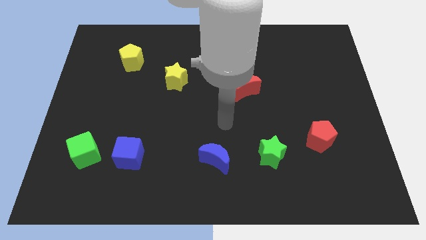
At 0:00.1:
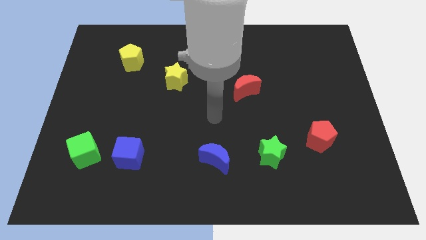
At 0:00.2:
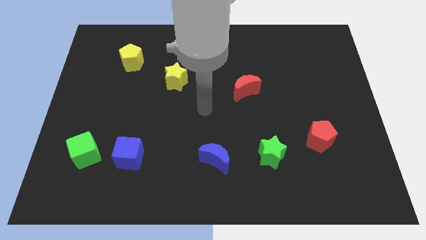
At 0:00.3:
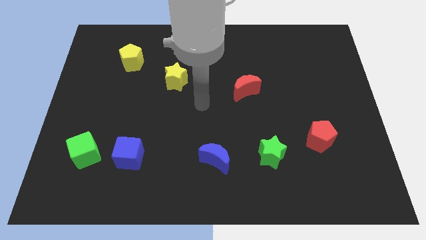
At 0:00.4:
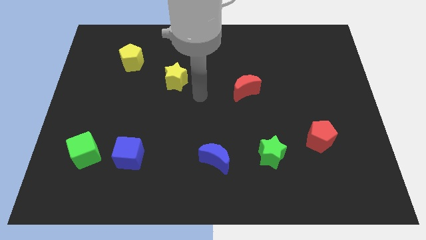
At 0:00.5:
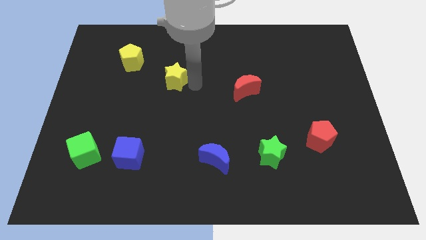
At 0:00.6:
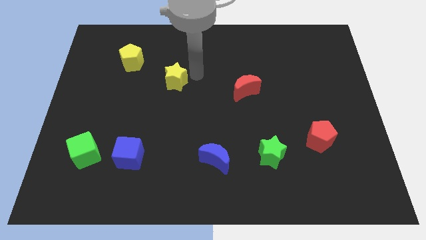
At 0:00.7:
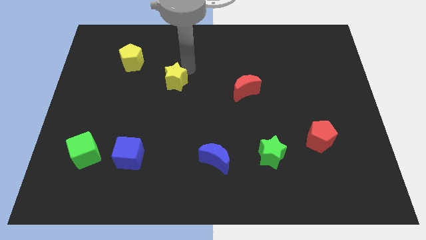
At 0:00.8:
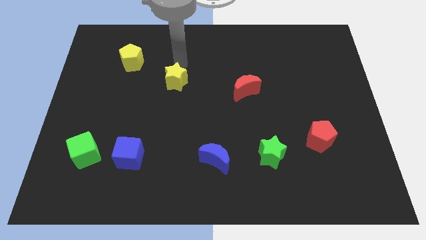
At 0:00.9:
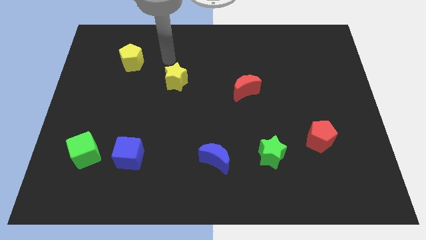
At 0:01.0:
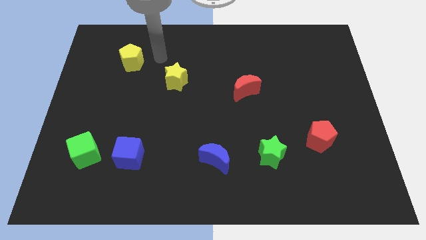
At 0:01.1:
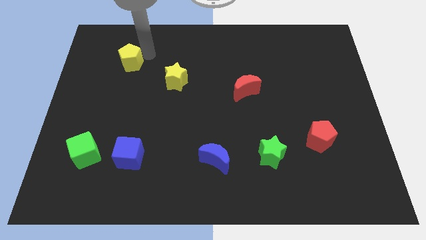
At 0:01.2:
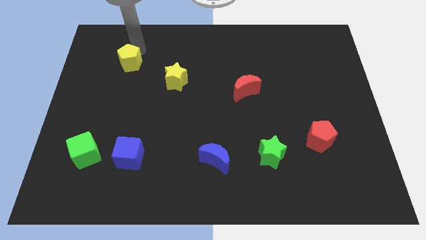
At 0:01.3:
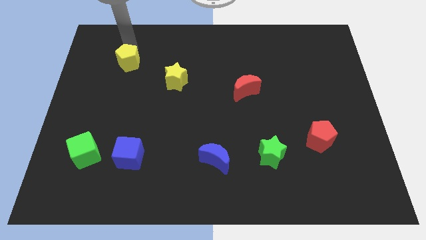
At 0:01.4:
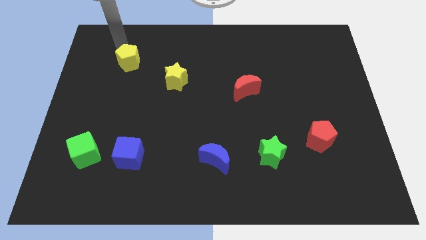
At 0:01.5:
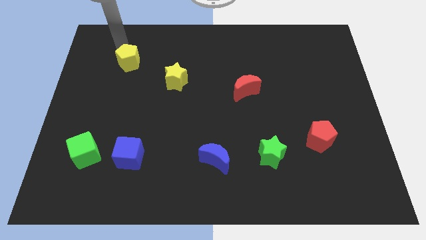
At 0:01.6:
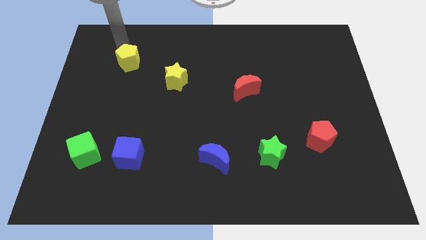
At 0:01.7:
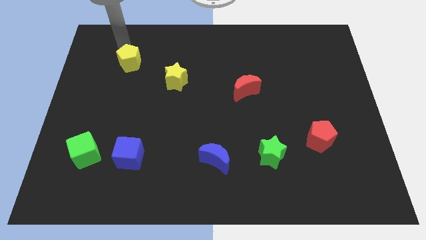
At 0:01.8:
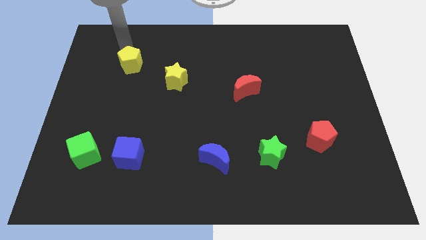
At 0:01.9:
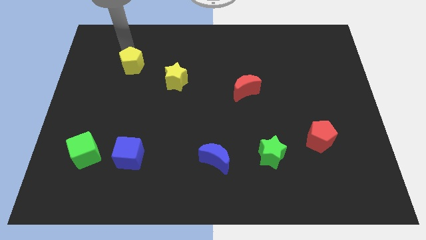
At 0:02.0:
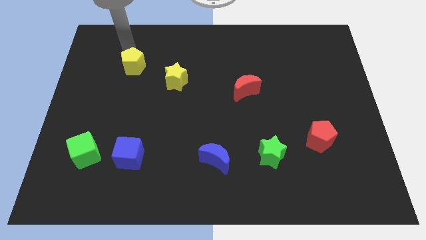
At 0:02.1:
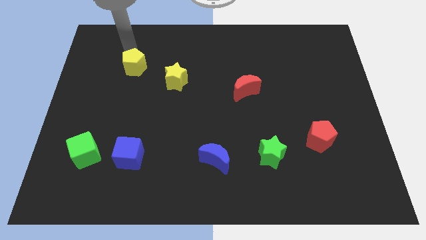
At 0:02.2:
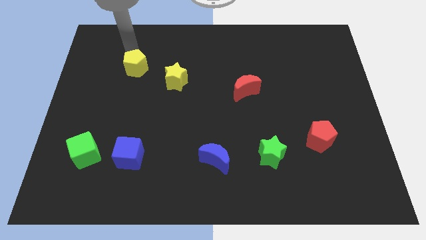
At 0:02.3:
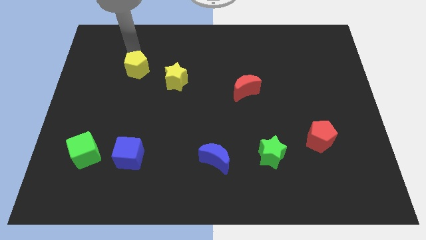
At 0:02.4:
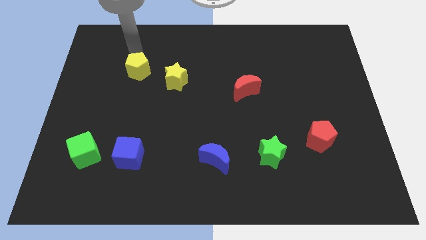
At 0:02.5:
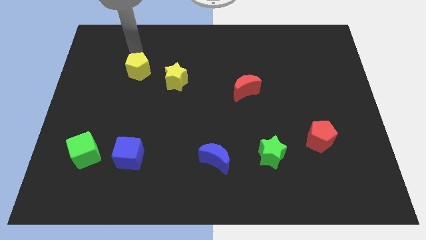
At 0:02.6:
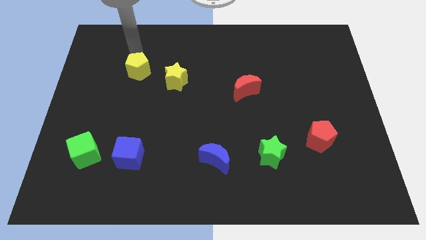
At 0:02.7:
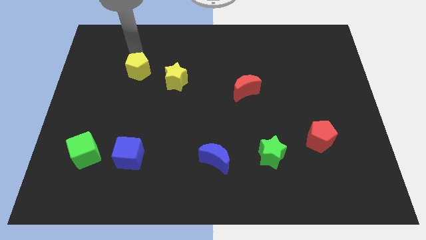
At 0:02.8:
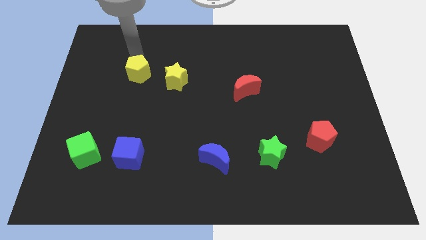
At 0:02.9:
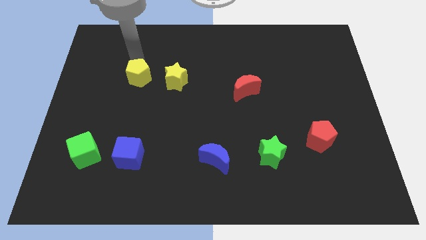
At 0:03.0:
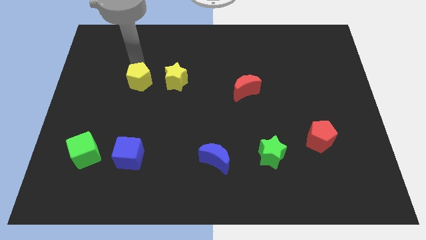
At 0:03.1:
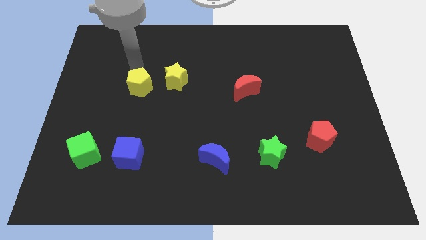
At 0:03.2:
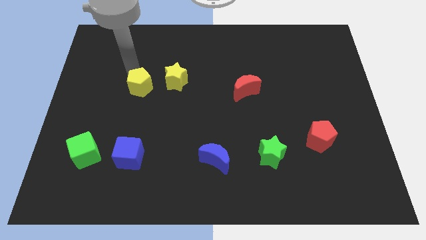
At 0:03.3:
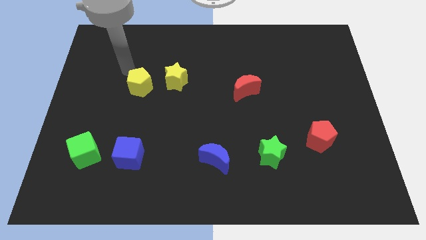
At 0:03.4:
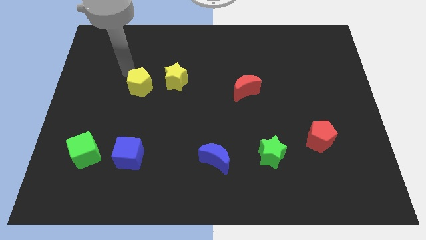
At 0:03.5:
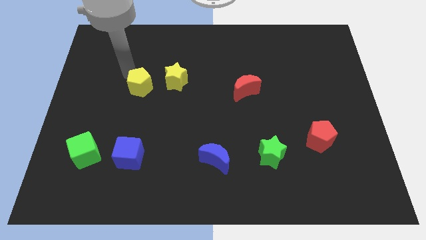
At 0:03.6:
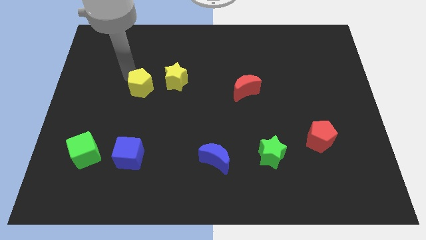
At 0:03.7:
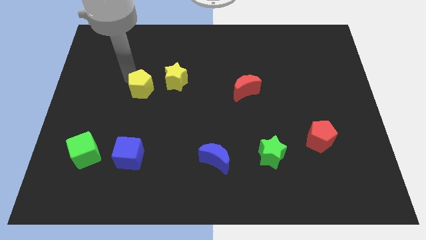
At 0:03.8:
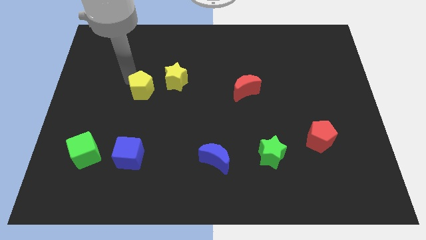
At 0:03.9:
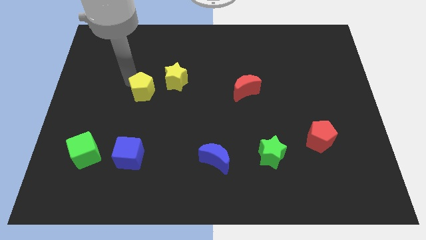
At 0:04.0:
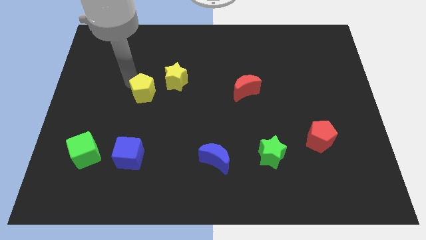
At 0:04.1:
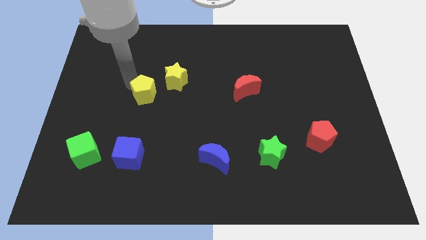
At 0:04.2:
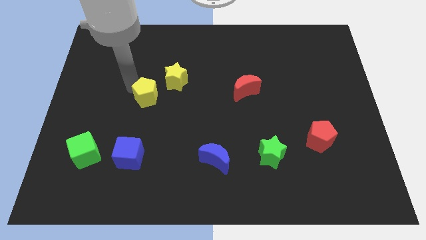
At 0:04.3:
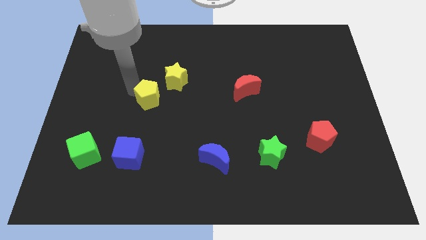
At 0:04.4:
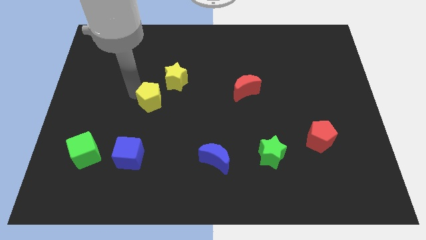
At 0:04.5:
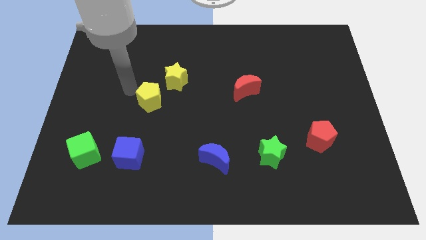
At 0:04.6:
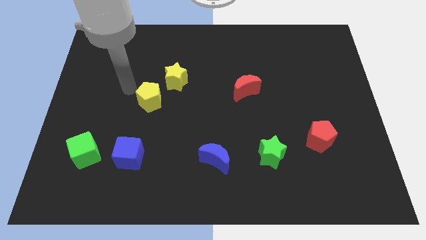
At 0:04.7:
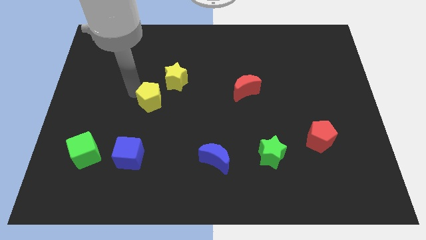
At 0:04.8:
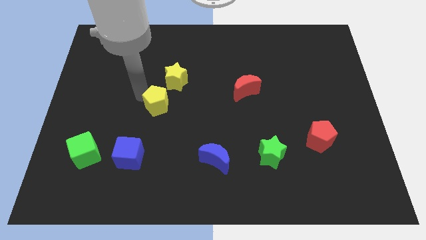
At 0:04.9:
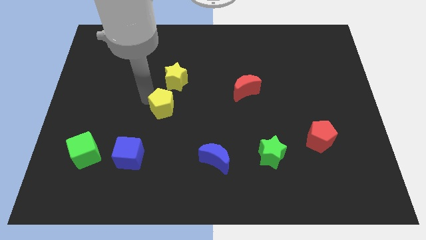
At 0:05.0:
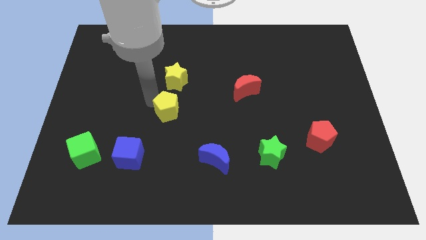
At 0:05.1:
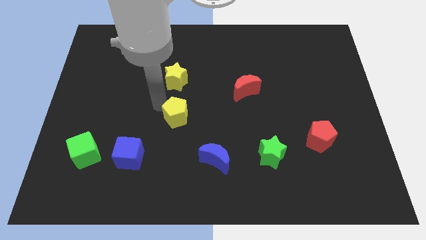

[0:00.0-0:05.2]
move the yellow pentagon diagonally downwards and right

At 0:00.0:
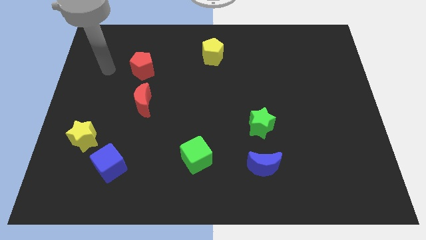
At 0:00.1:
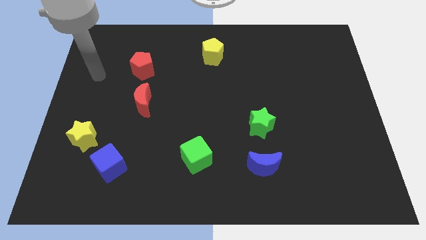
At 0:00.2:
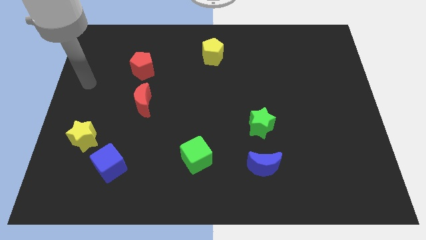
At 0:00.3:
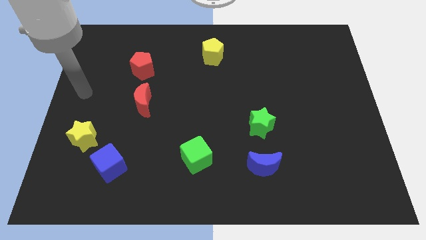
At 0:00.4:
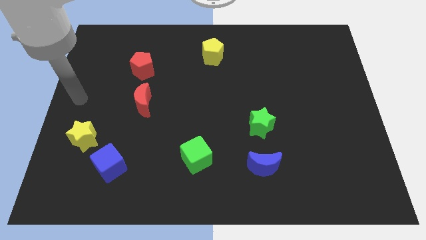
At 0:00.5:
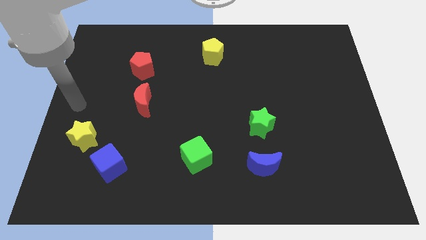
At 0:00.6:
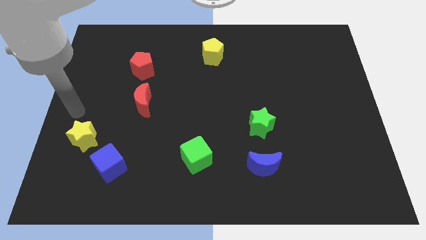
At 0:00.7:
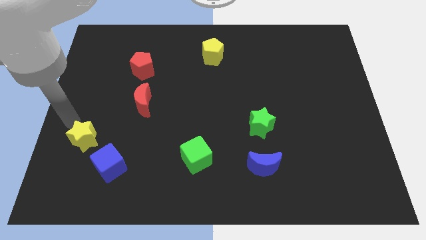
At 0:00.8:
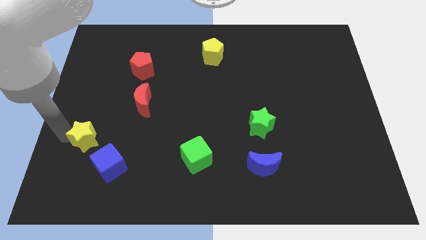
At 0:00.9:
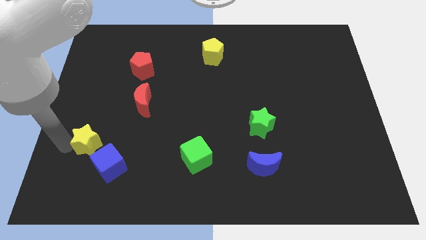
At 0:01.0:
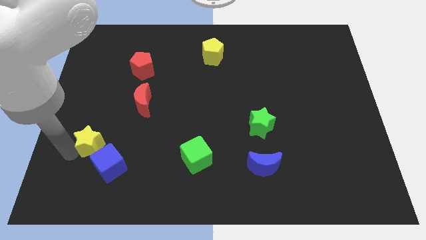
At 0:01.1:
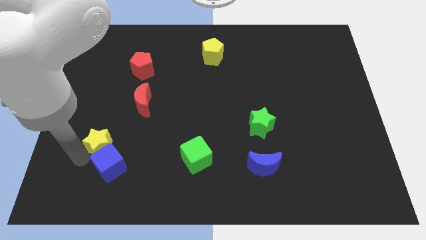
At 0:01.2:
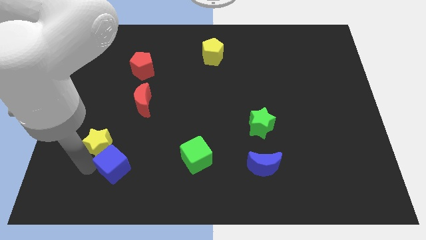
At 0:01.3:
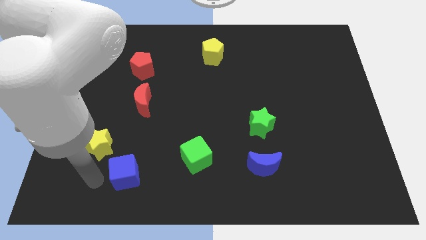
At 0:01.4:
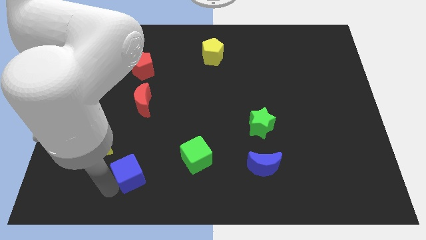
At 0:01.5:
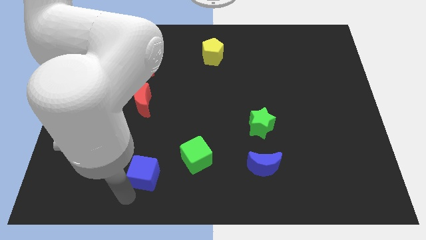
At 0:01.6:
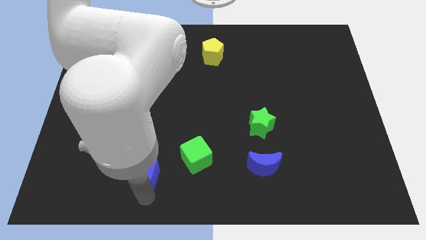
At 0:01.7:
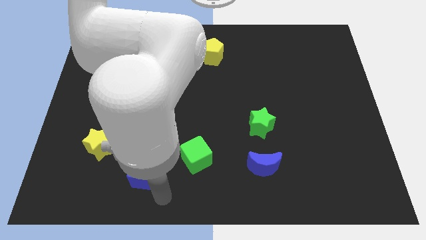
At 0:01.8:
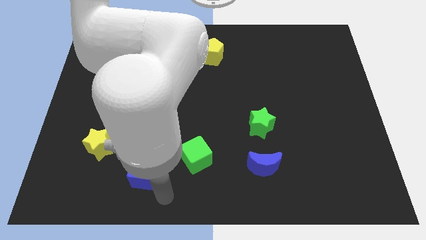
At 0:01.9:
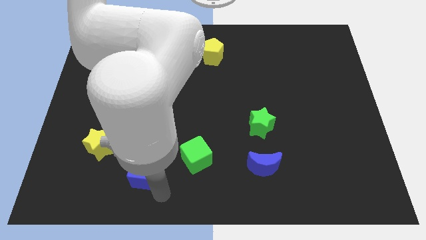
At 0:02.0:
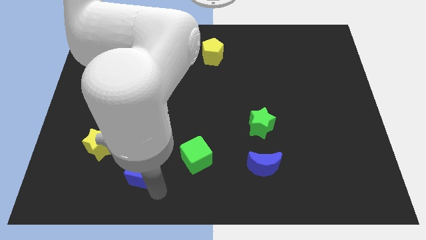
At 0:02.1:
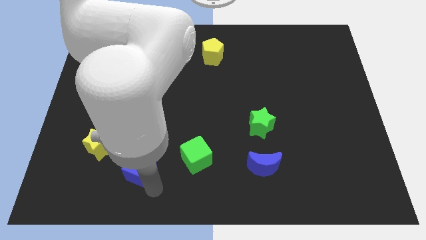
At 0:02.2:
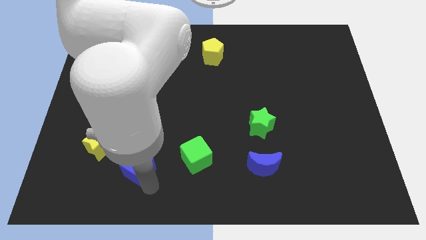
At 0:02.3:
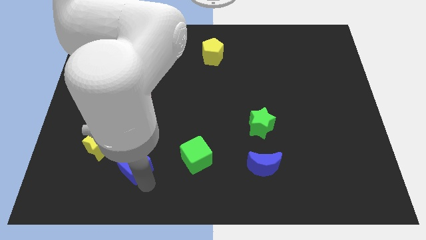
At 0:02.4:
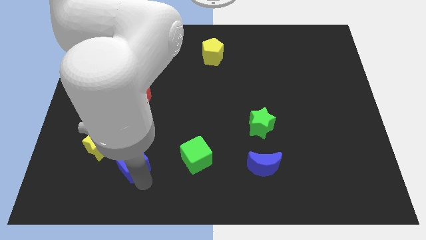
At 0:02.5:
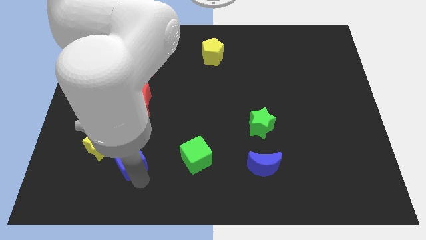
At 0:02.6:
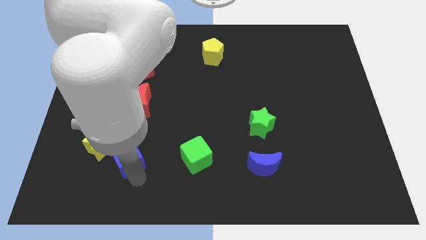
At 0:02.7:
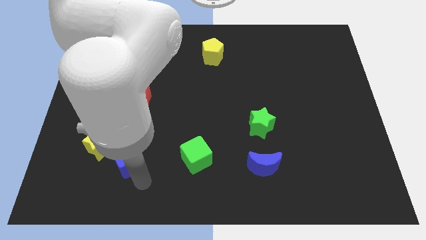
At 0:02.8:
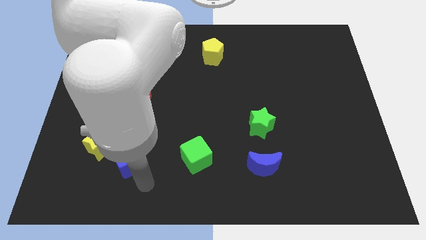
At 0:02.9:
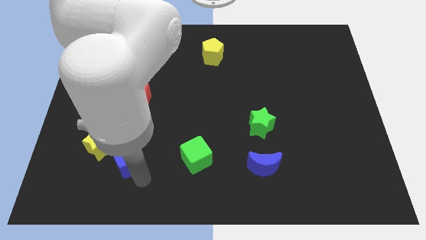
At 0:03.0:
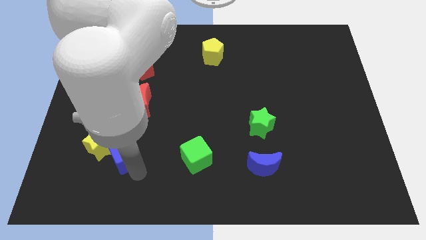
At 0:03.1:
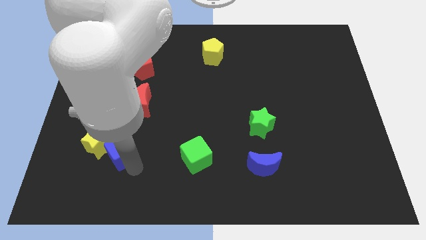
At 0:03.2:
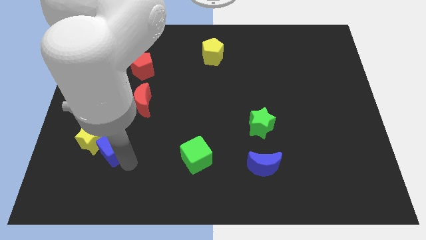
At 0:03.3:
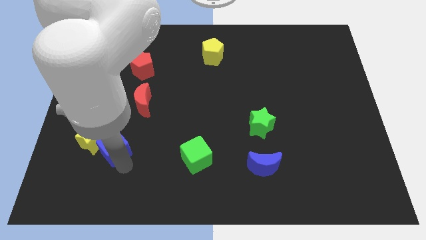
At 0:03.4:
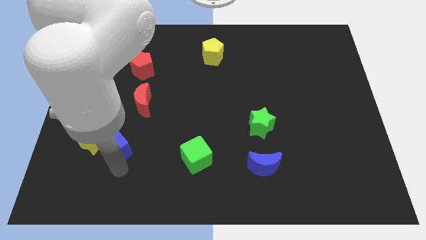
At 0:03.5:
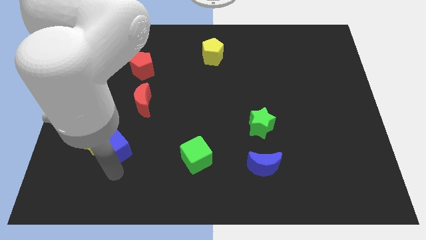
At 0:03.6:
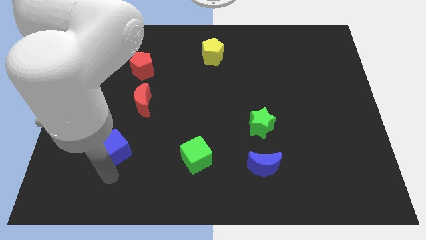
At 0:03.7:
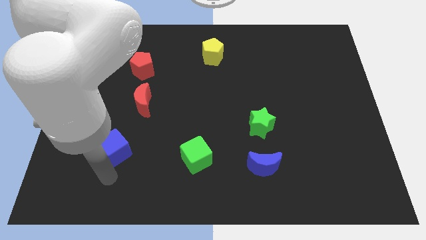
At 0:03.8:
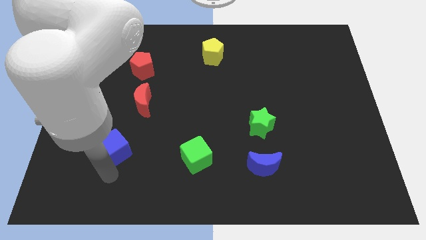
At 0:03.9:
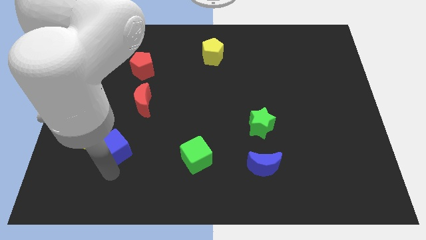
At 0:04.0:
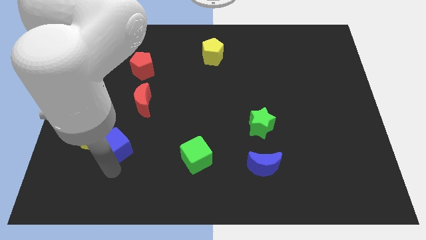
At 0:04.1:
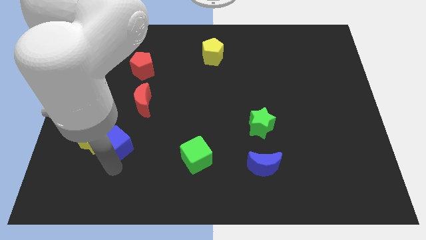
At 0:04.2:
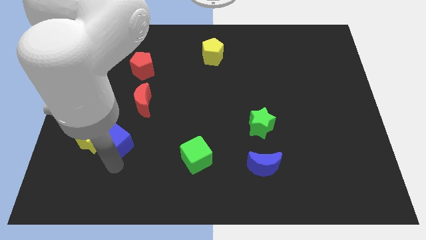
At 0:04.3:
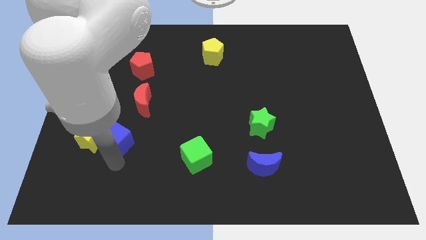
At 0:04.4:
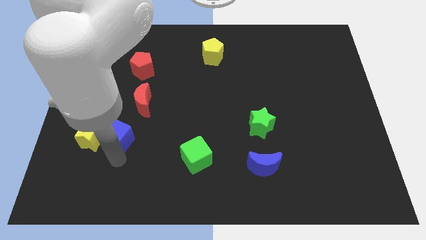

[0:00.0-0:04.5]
push the blue cube upwards a bit
